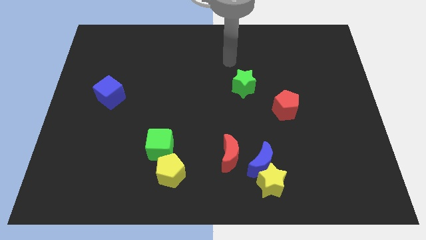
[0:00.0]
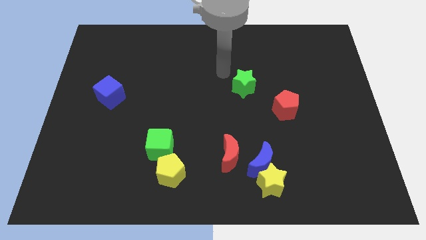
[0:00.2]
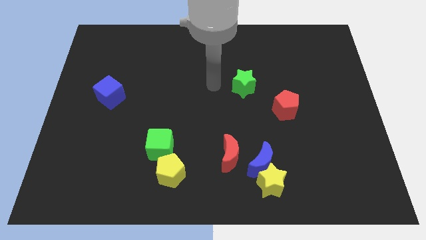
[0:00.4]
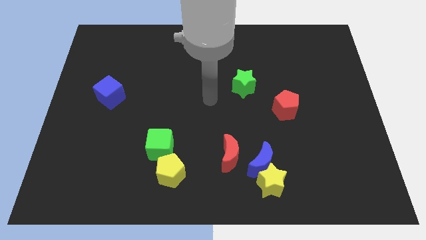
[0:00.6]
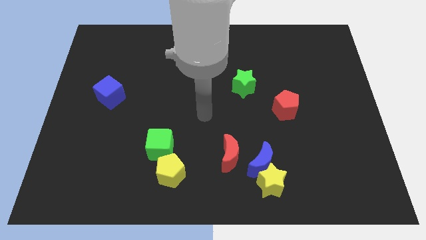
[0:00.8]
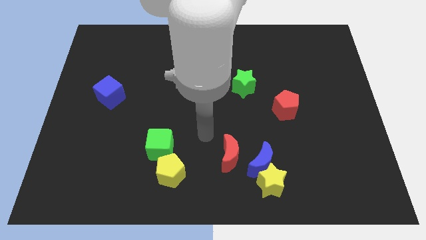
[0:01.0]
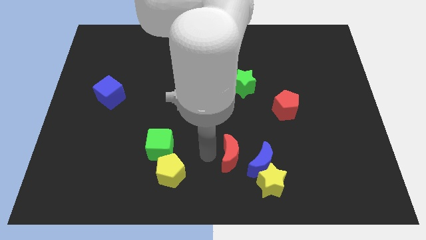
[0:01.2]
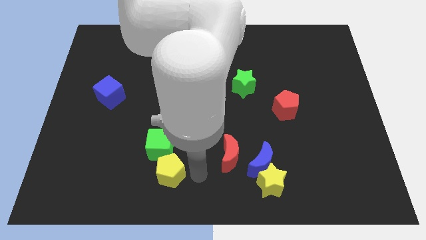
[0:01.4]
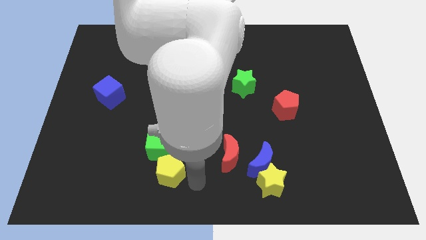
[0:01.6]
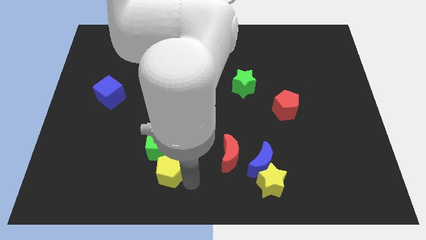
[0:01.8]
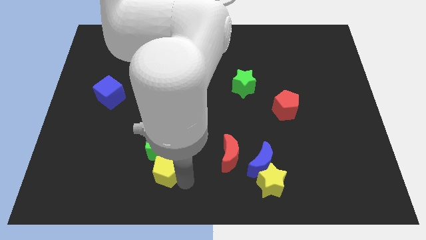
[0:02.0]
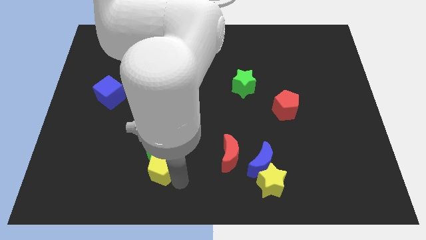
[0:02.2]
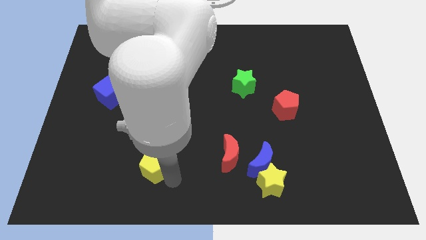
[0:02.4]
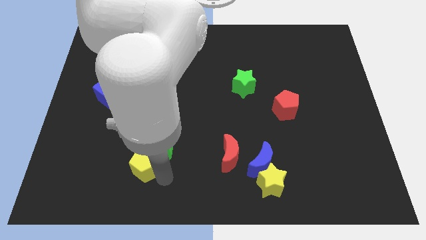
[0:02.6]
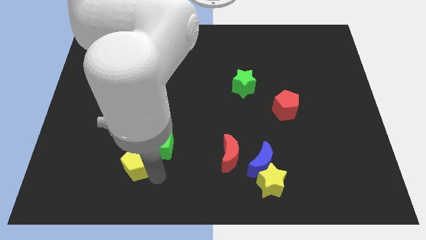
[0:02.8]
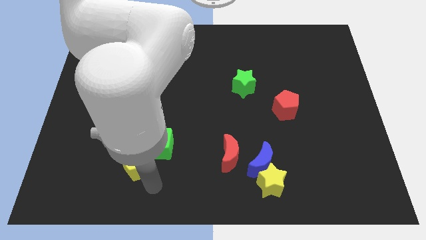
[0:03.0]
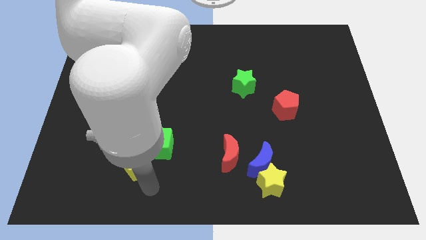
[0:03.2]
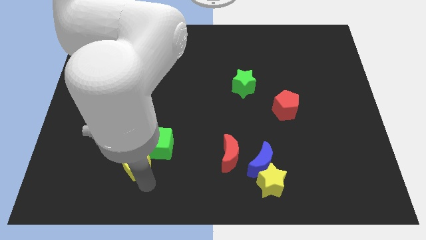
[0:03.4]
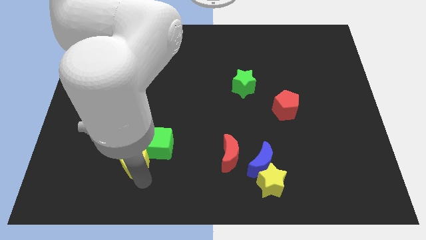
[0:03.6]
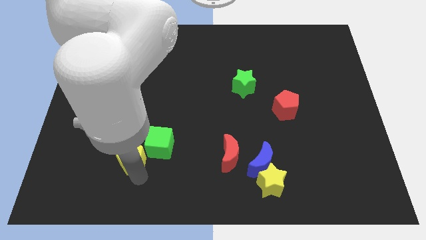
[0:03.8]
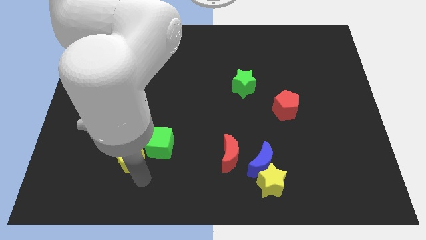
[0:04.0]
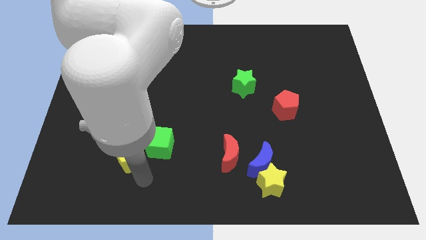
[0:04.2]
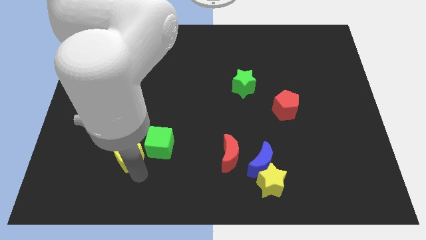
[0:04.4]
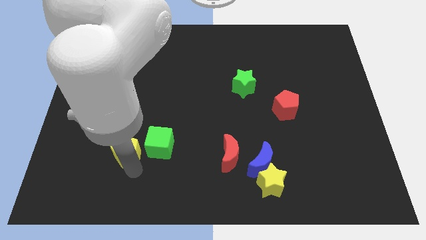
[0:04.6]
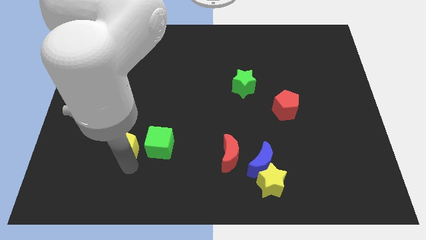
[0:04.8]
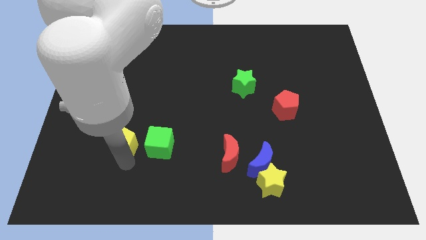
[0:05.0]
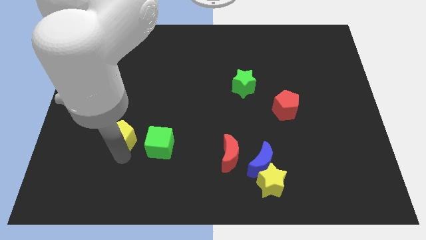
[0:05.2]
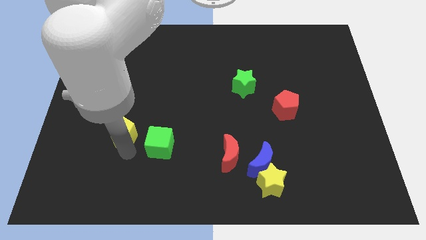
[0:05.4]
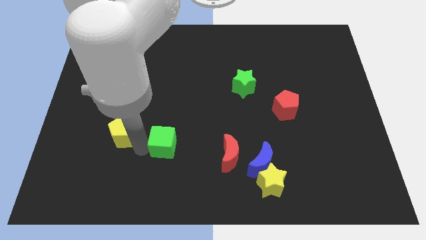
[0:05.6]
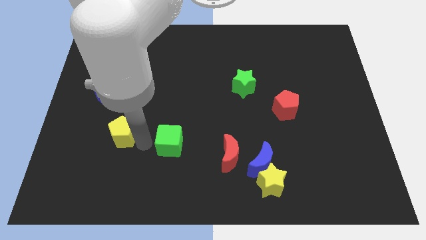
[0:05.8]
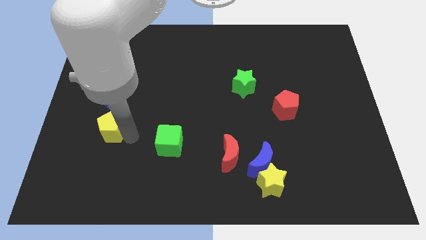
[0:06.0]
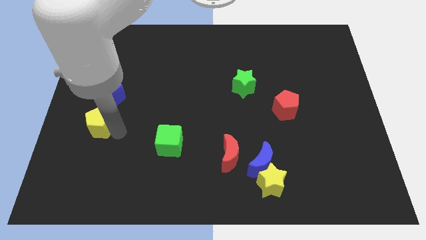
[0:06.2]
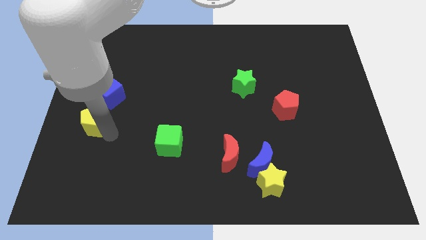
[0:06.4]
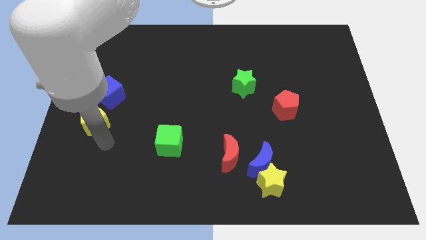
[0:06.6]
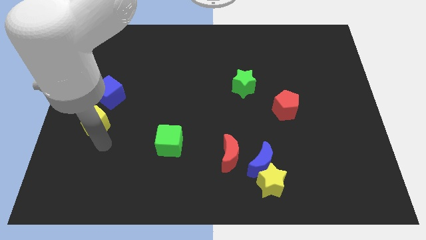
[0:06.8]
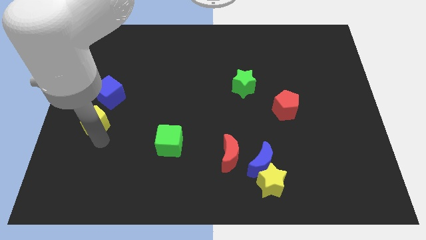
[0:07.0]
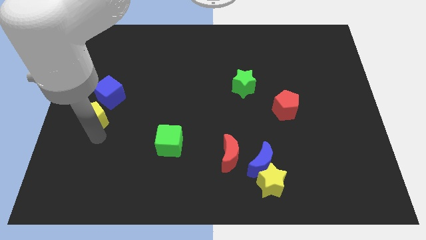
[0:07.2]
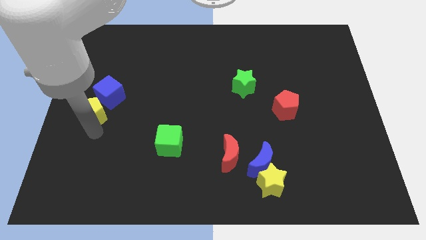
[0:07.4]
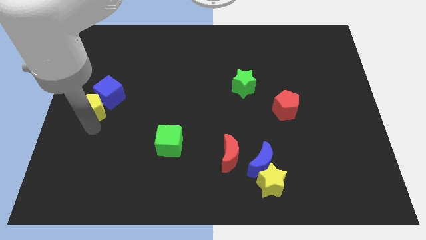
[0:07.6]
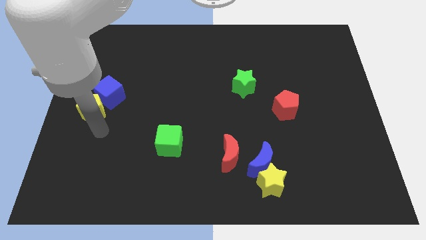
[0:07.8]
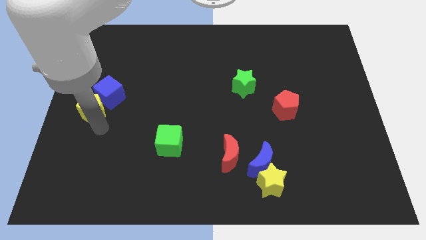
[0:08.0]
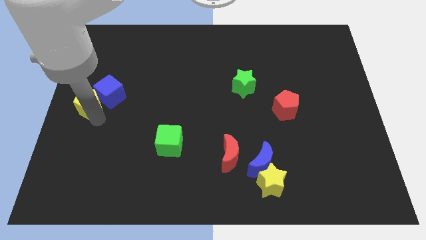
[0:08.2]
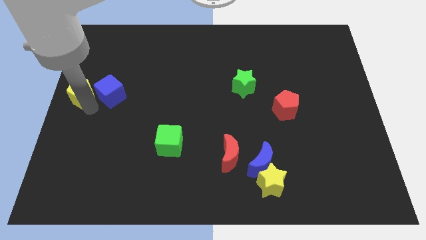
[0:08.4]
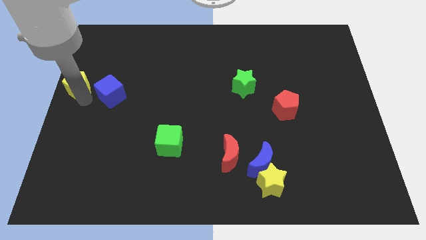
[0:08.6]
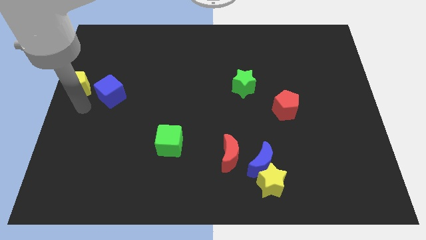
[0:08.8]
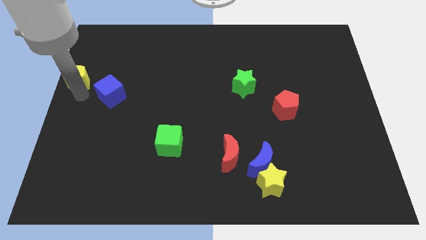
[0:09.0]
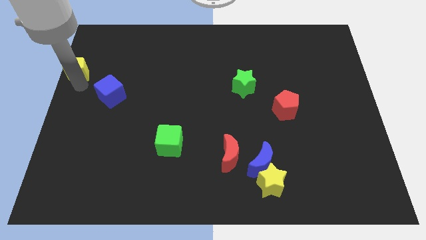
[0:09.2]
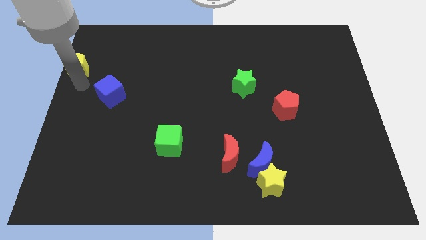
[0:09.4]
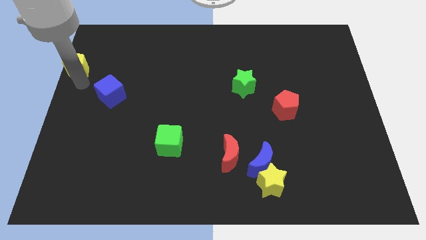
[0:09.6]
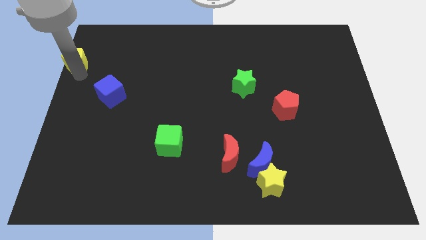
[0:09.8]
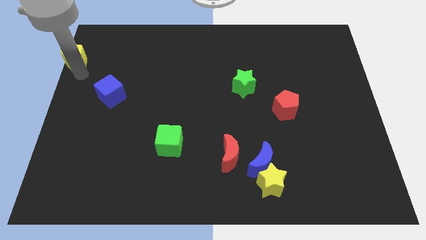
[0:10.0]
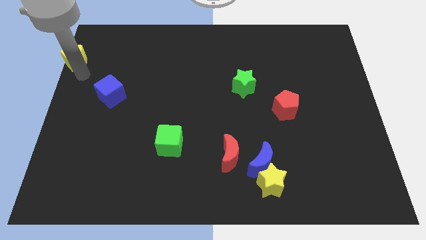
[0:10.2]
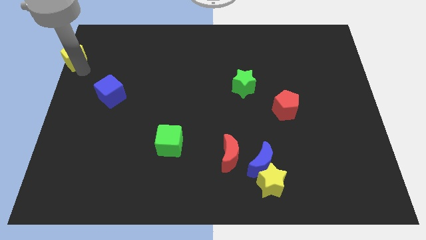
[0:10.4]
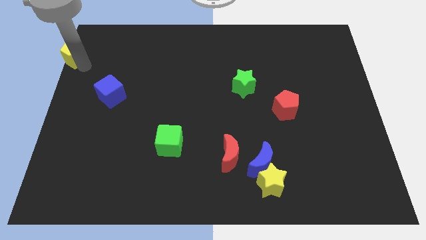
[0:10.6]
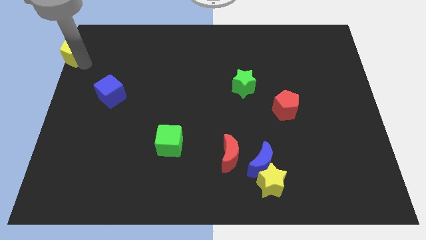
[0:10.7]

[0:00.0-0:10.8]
push the yellow pentagon to the top left corner

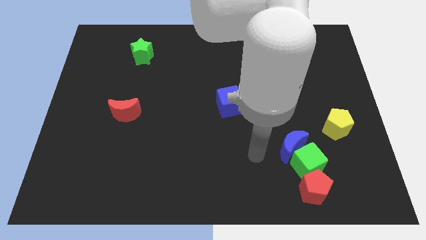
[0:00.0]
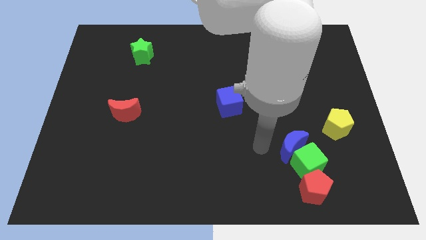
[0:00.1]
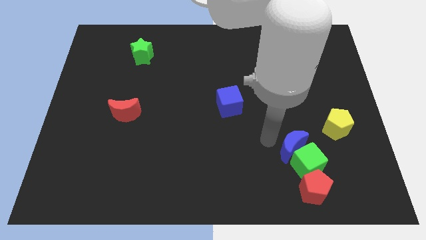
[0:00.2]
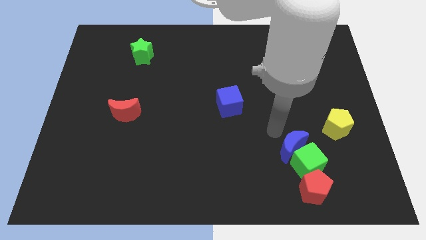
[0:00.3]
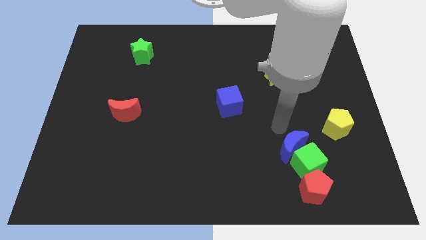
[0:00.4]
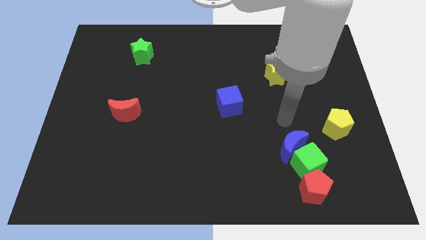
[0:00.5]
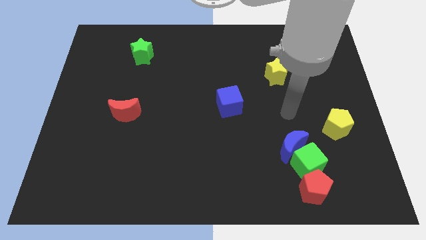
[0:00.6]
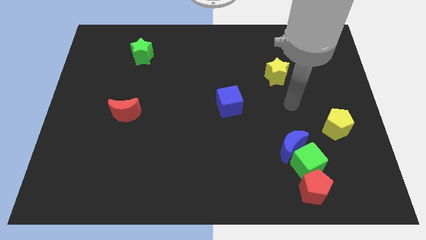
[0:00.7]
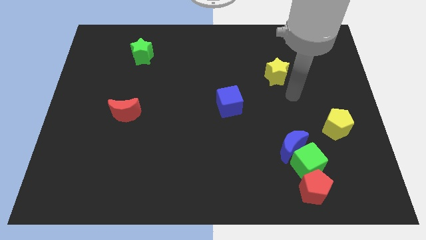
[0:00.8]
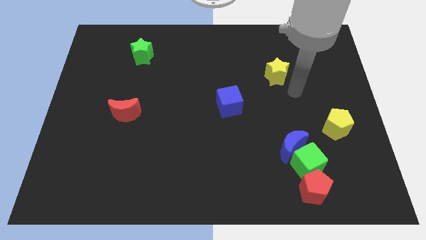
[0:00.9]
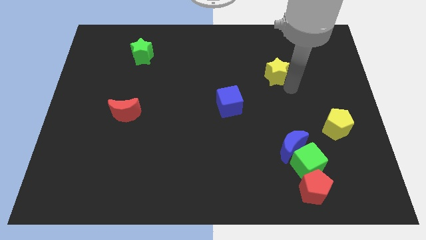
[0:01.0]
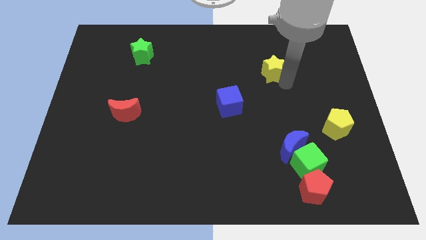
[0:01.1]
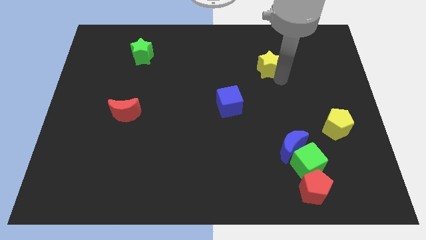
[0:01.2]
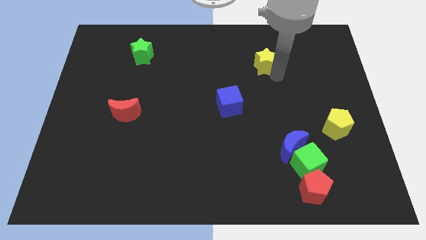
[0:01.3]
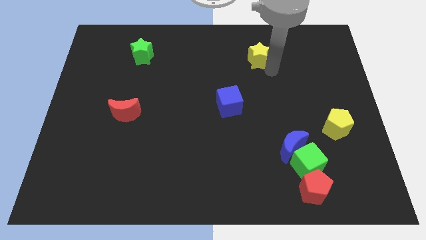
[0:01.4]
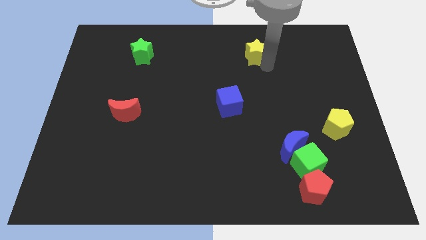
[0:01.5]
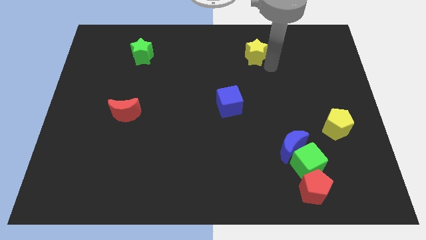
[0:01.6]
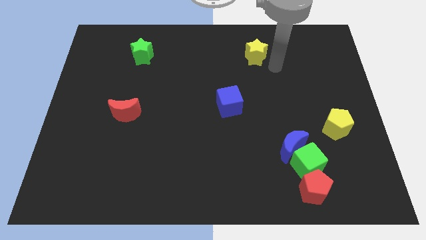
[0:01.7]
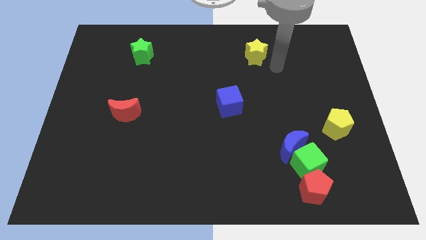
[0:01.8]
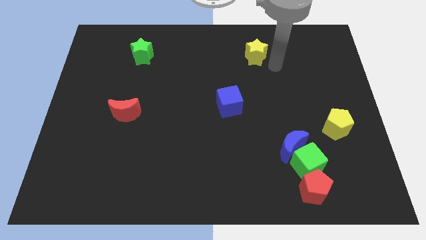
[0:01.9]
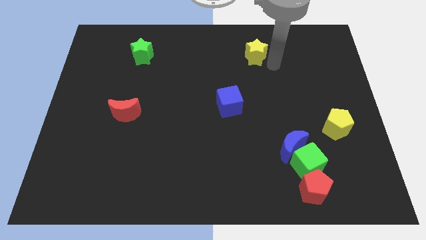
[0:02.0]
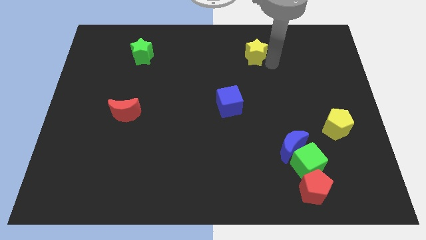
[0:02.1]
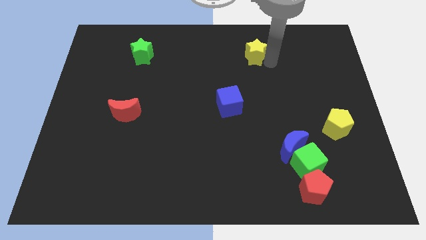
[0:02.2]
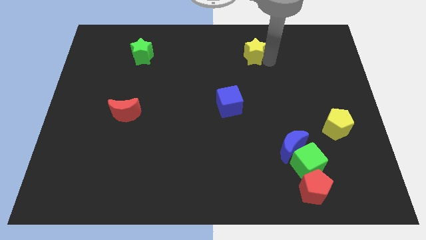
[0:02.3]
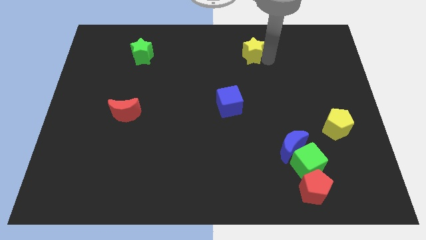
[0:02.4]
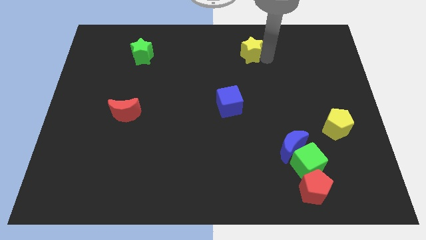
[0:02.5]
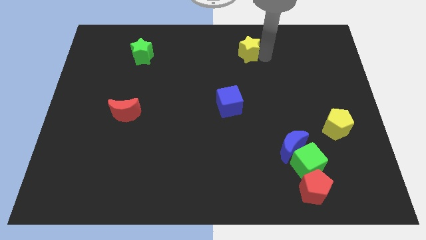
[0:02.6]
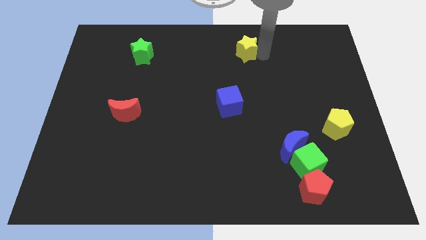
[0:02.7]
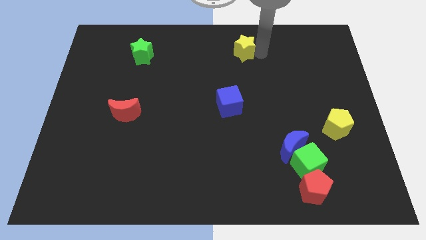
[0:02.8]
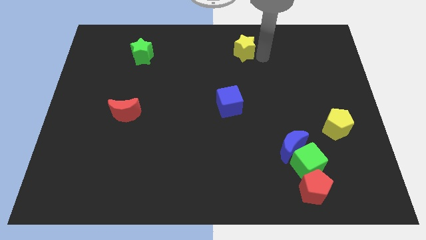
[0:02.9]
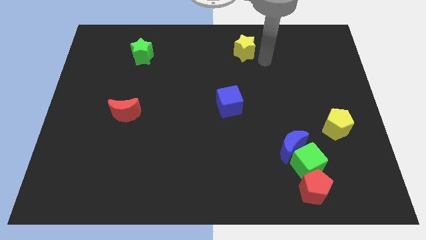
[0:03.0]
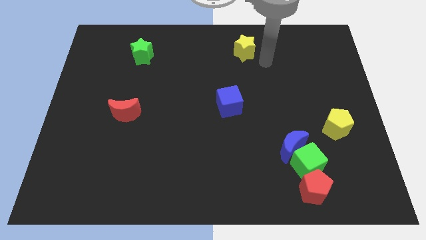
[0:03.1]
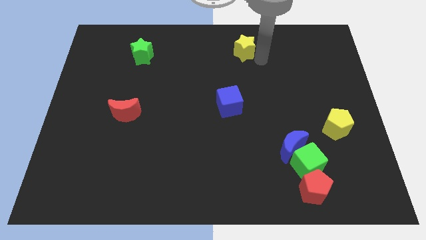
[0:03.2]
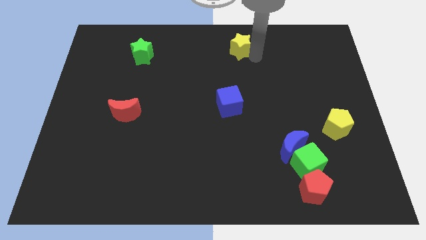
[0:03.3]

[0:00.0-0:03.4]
put the yellow star to the top side
